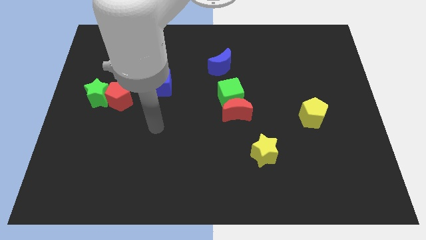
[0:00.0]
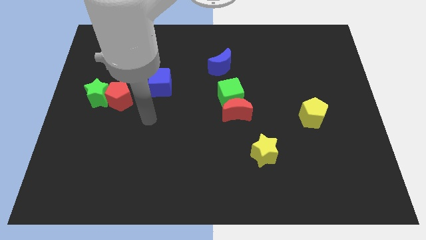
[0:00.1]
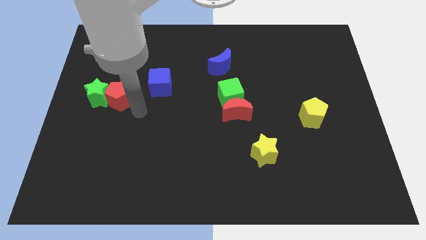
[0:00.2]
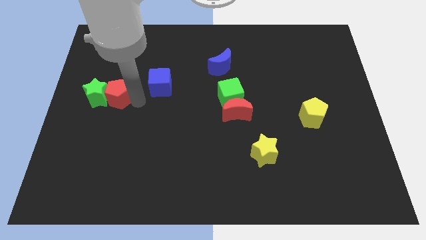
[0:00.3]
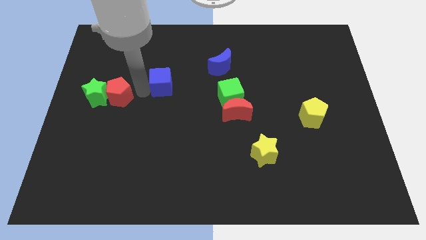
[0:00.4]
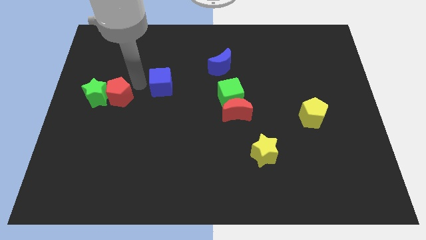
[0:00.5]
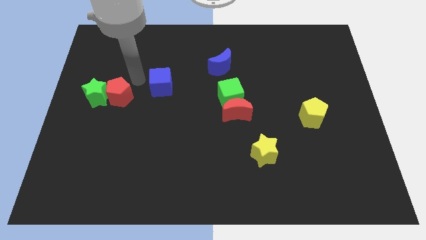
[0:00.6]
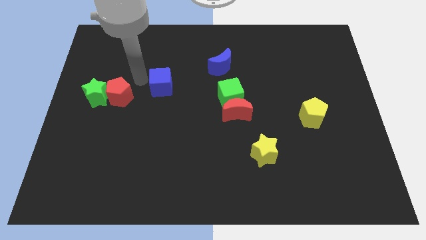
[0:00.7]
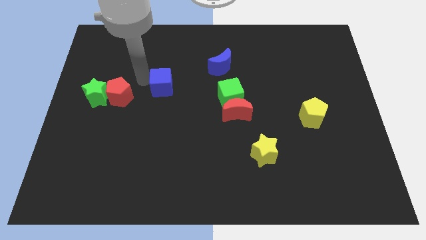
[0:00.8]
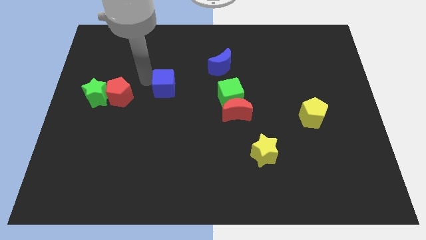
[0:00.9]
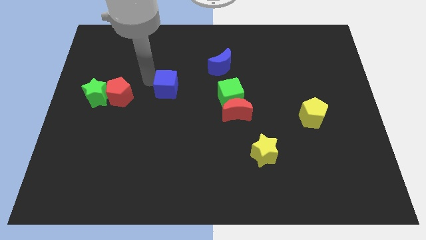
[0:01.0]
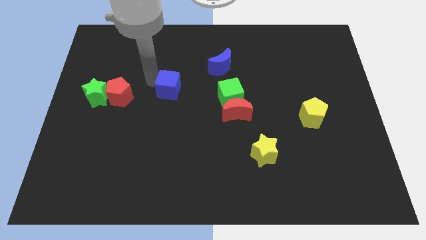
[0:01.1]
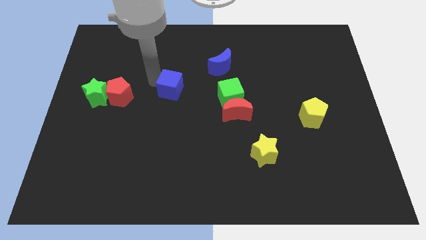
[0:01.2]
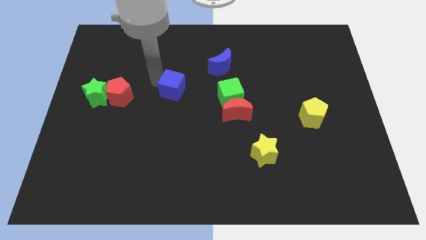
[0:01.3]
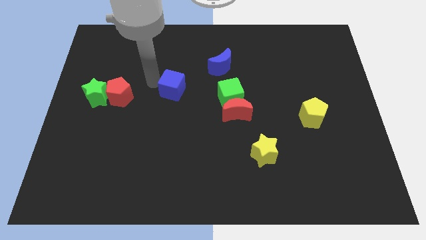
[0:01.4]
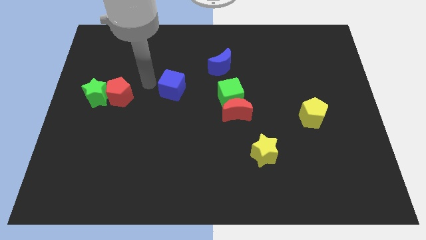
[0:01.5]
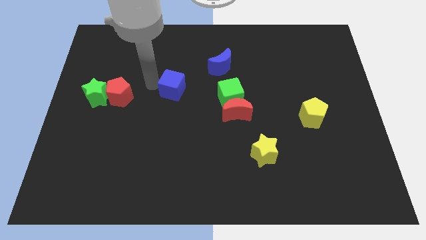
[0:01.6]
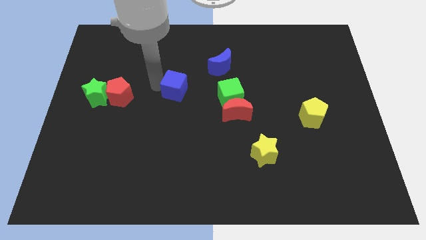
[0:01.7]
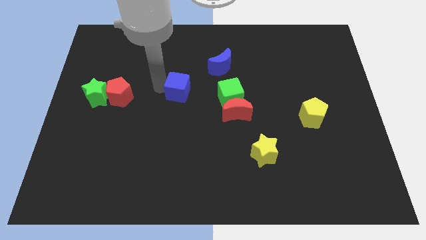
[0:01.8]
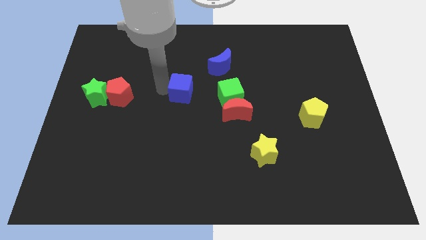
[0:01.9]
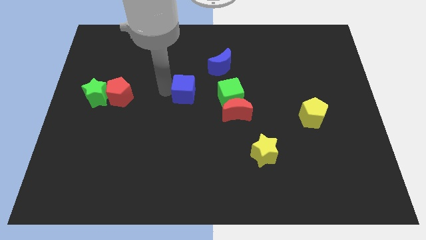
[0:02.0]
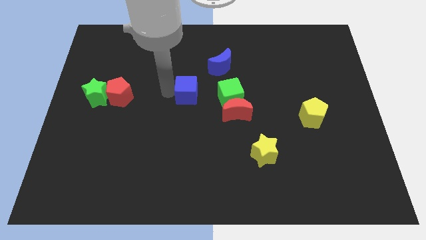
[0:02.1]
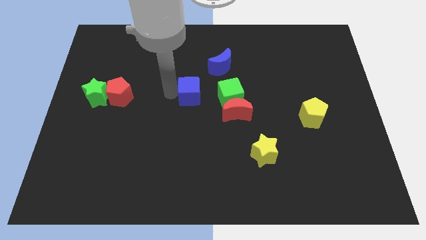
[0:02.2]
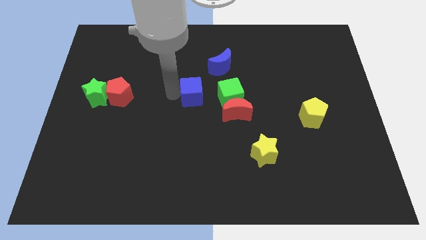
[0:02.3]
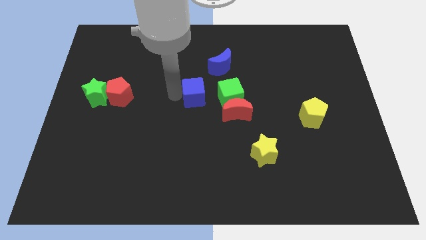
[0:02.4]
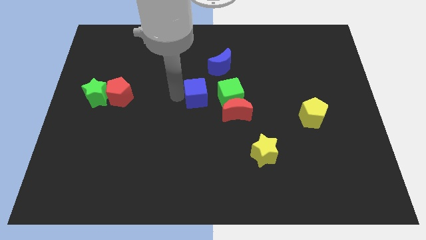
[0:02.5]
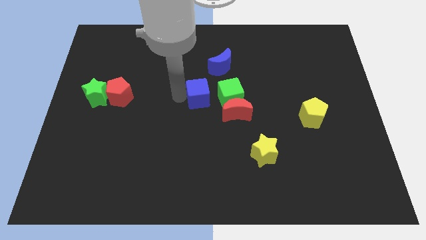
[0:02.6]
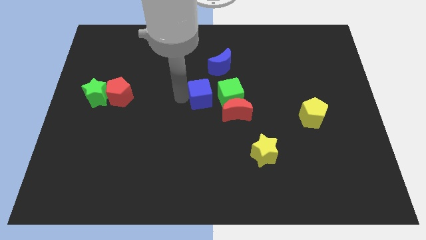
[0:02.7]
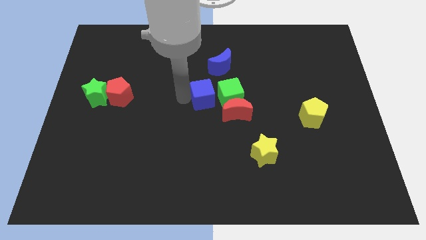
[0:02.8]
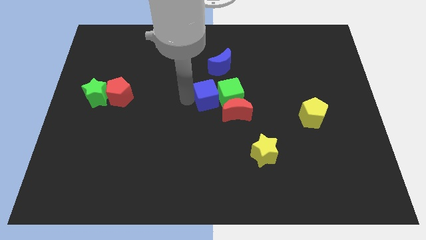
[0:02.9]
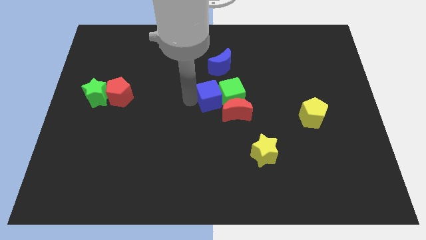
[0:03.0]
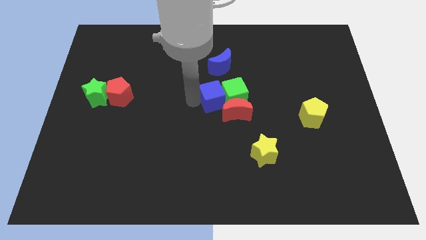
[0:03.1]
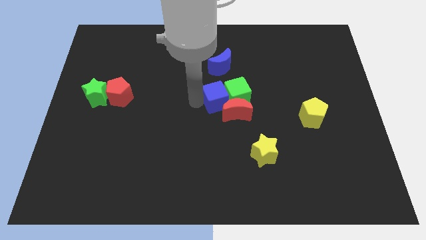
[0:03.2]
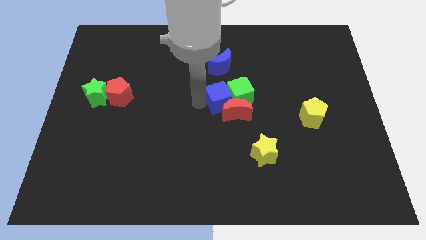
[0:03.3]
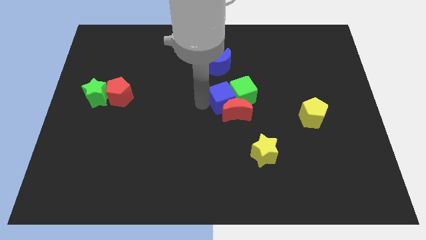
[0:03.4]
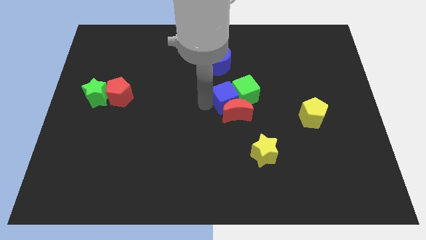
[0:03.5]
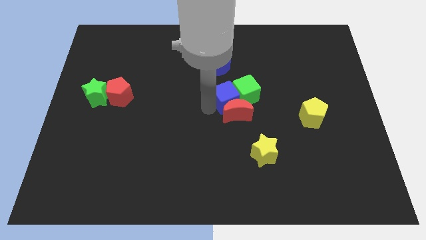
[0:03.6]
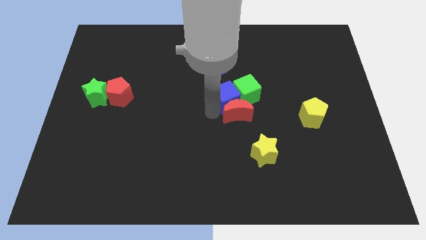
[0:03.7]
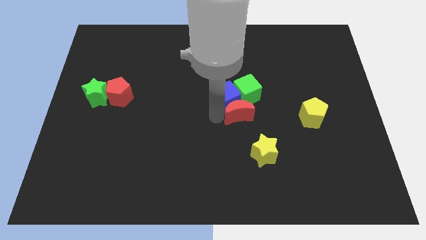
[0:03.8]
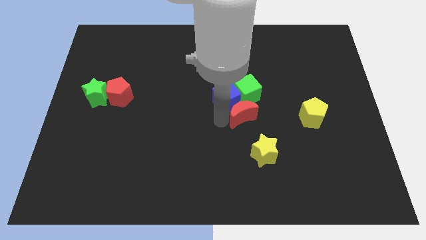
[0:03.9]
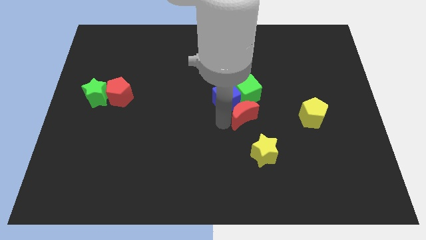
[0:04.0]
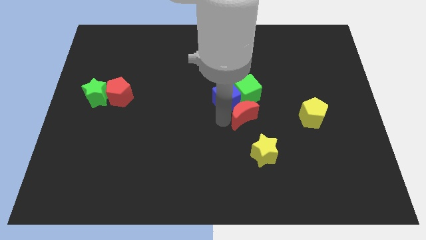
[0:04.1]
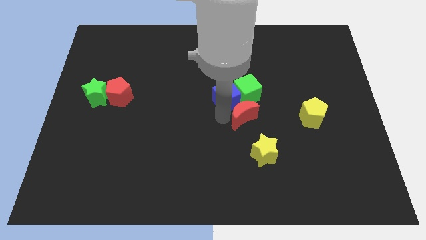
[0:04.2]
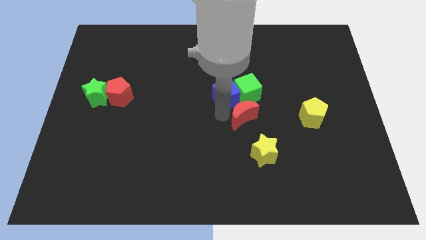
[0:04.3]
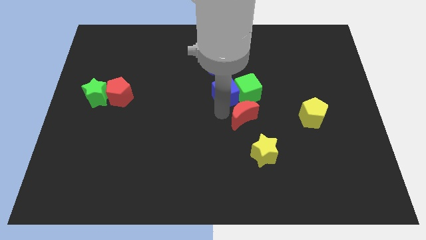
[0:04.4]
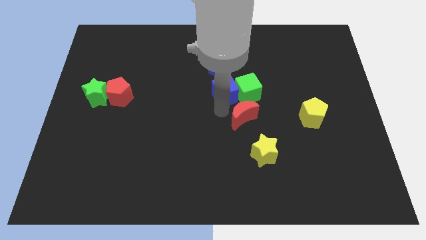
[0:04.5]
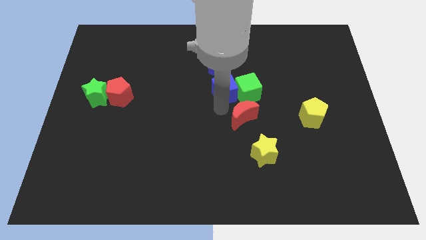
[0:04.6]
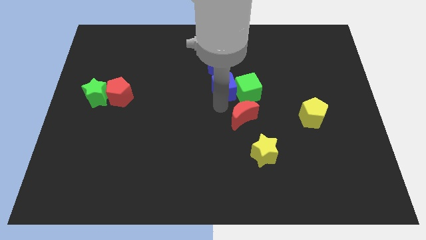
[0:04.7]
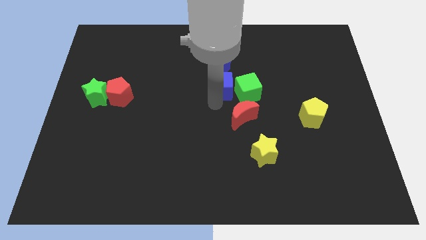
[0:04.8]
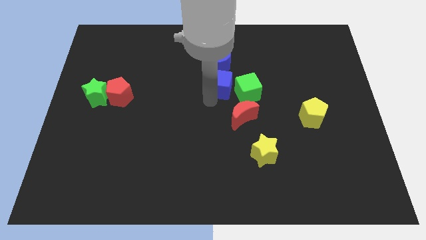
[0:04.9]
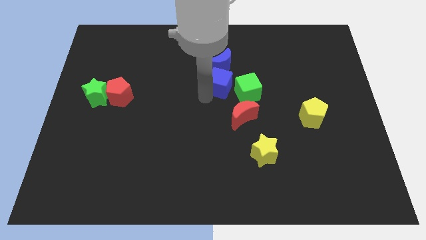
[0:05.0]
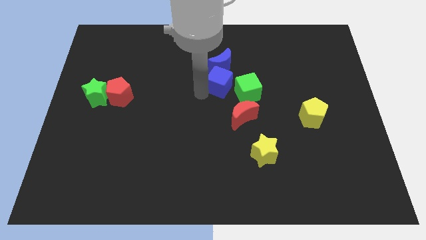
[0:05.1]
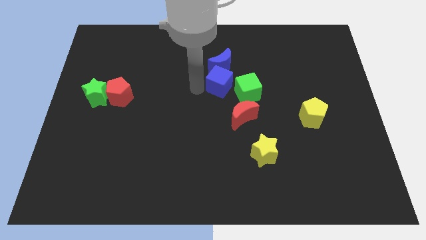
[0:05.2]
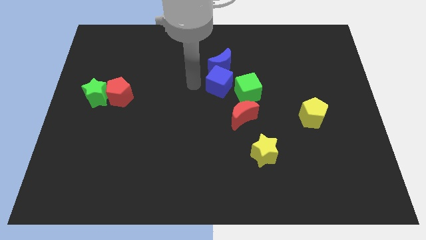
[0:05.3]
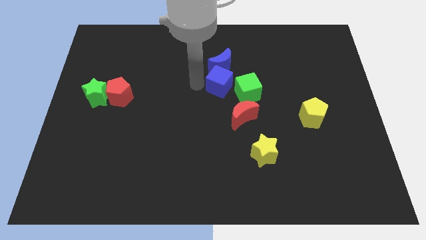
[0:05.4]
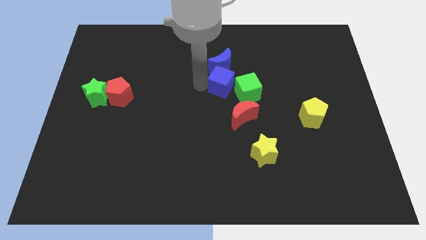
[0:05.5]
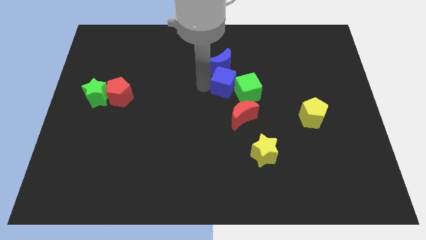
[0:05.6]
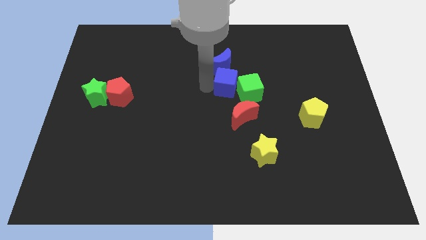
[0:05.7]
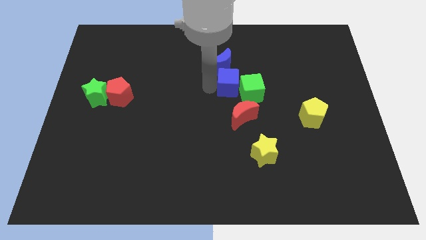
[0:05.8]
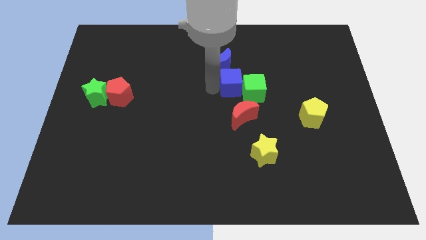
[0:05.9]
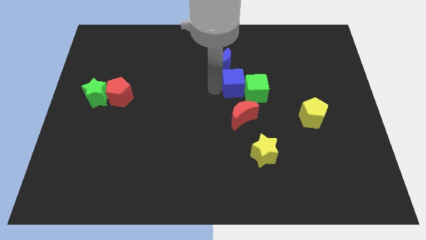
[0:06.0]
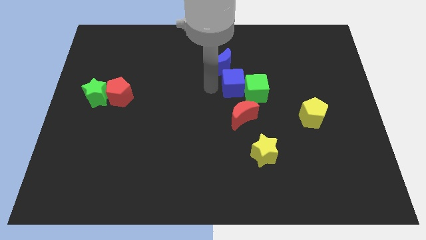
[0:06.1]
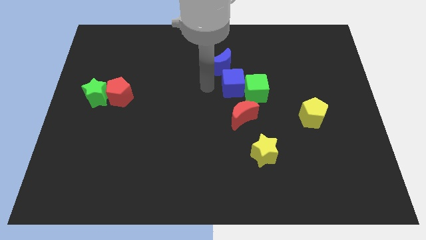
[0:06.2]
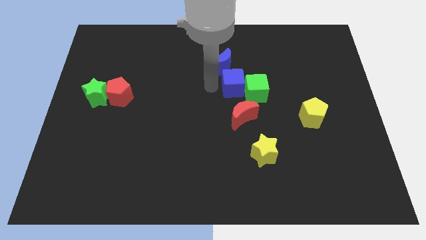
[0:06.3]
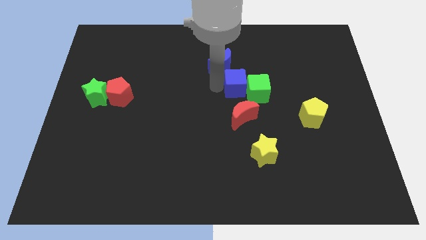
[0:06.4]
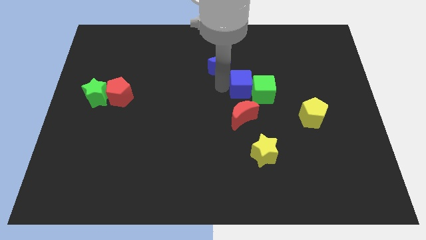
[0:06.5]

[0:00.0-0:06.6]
move the blue cube right

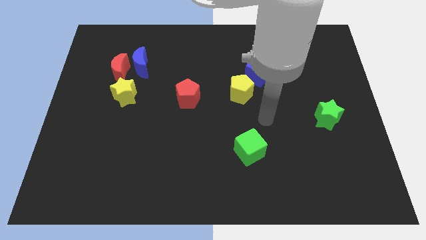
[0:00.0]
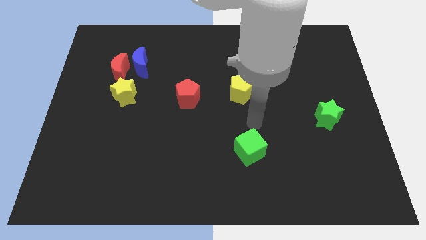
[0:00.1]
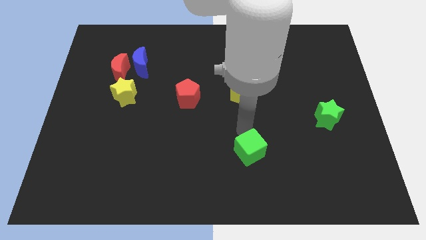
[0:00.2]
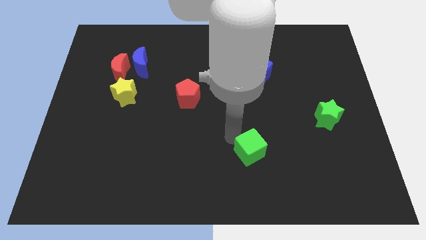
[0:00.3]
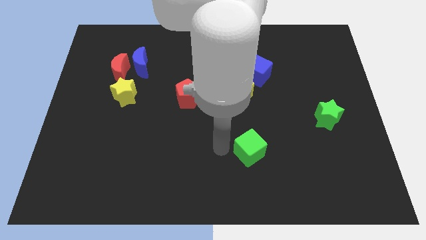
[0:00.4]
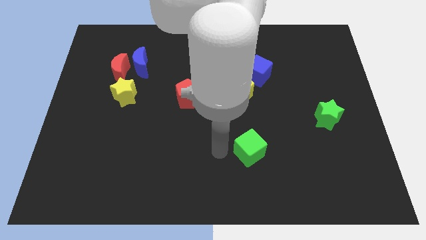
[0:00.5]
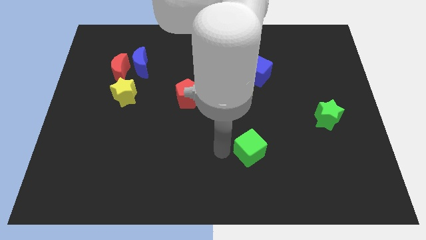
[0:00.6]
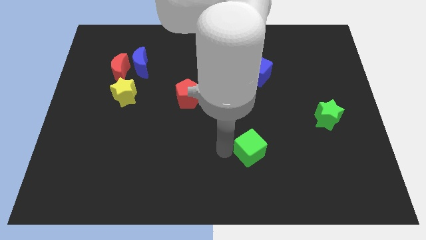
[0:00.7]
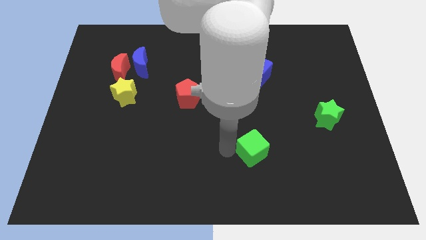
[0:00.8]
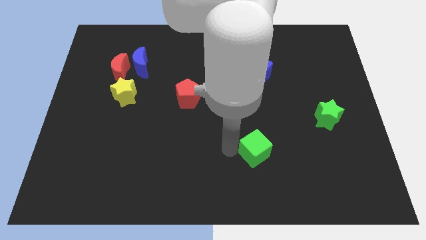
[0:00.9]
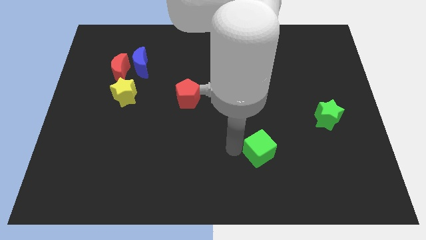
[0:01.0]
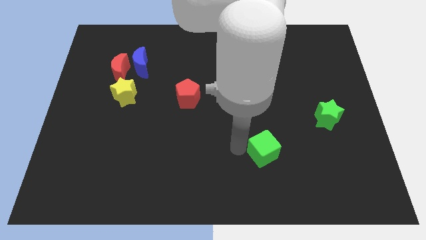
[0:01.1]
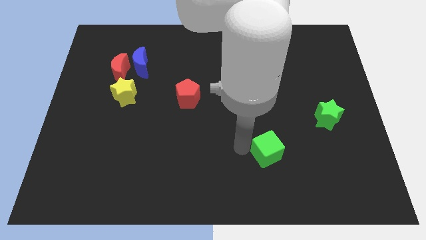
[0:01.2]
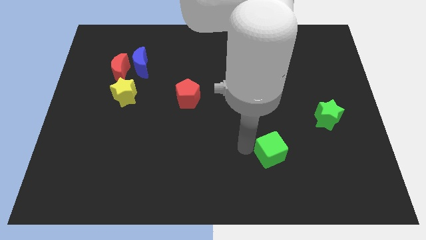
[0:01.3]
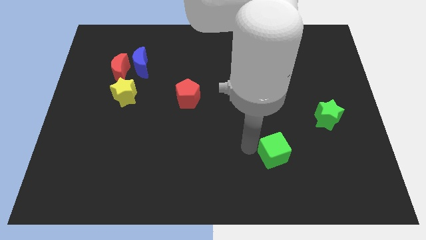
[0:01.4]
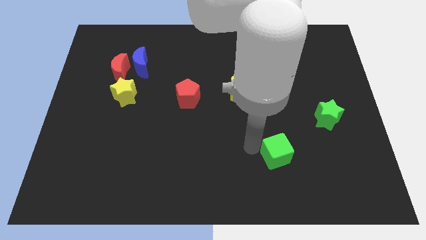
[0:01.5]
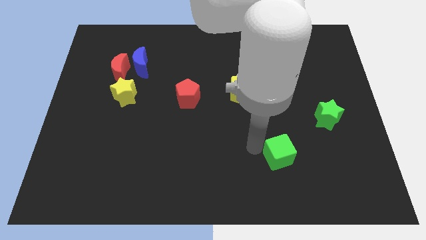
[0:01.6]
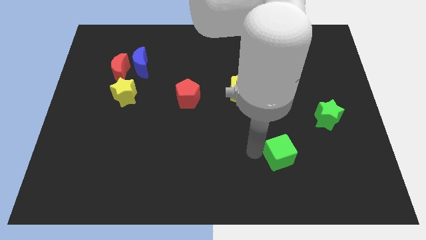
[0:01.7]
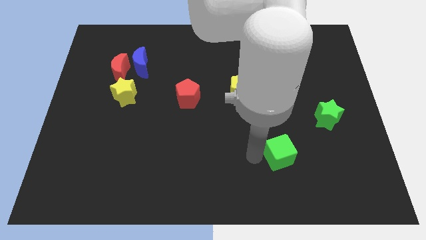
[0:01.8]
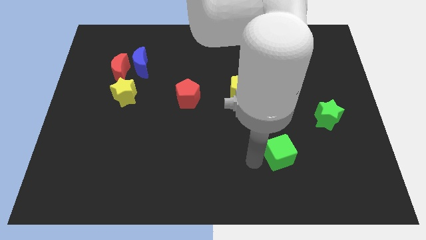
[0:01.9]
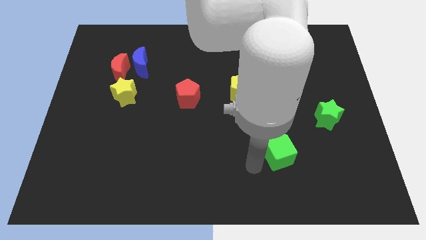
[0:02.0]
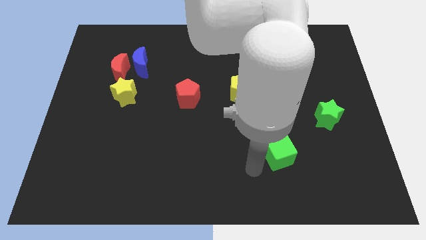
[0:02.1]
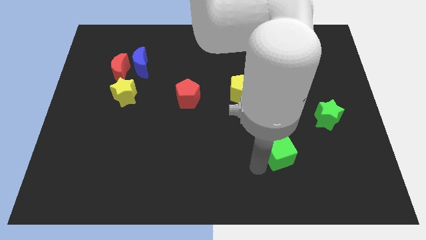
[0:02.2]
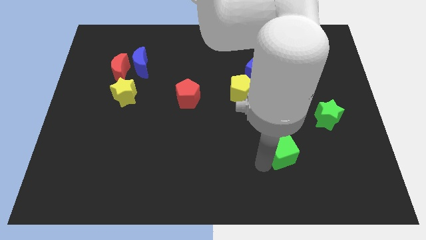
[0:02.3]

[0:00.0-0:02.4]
slightly slide the green cube to the right
